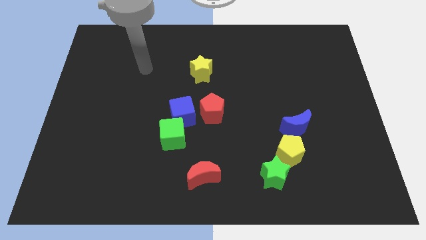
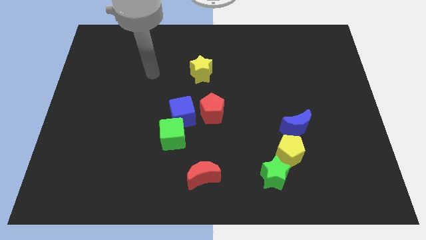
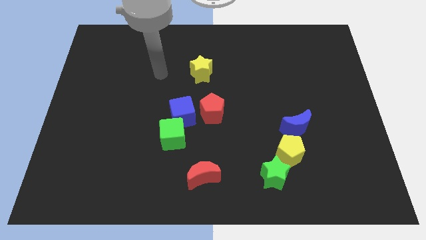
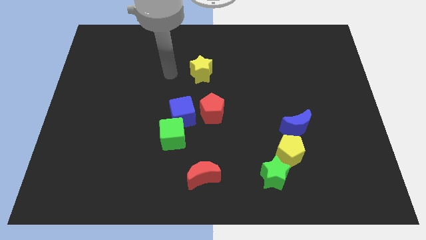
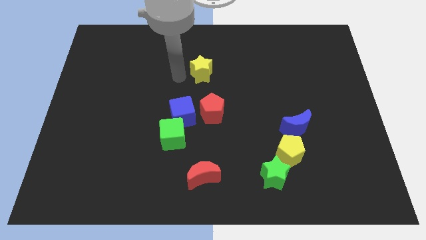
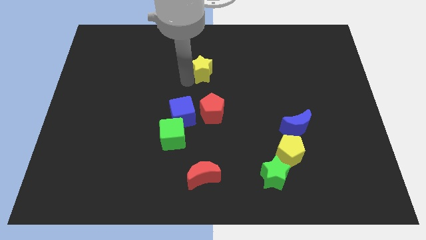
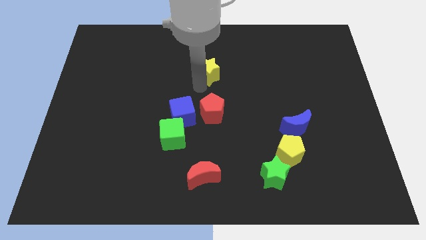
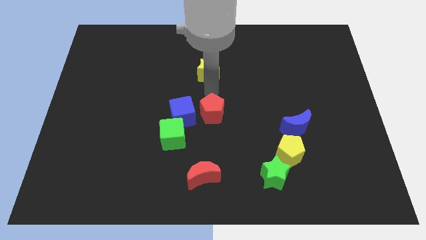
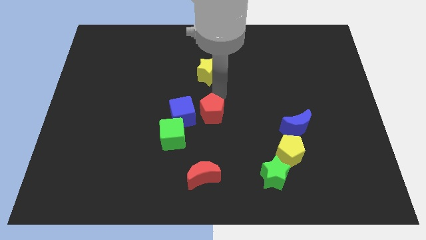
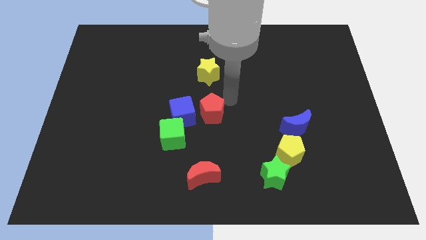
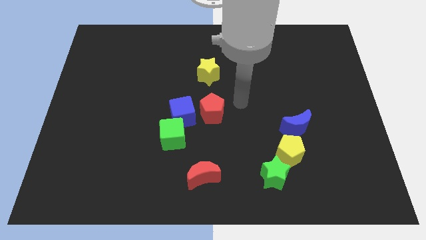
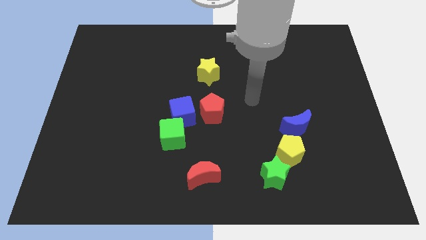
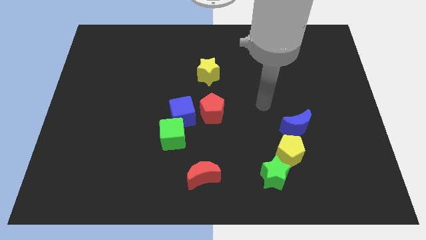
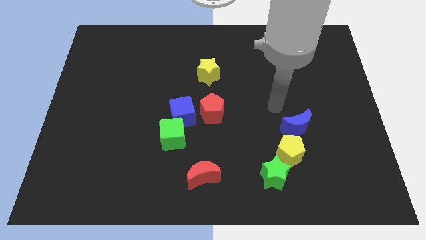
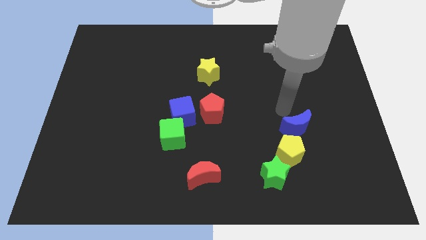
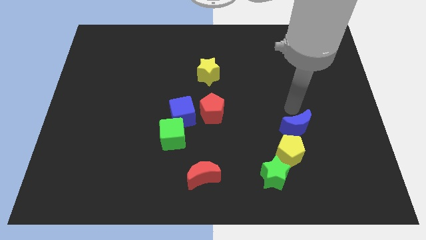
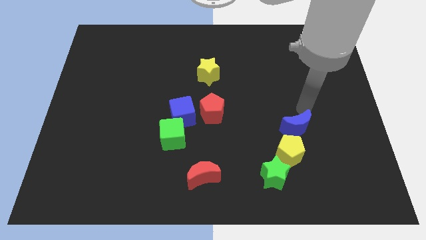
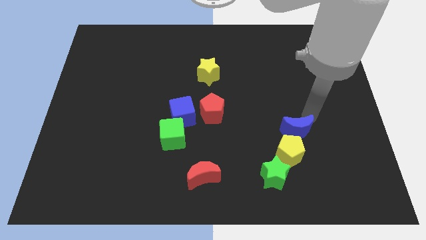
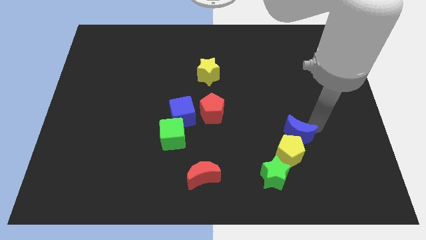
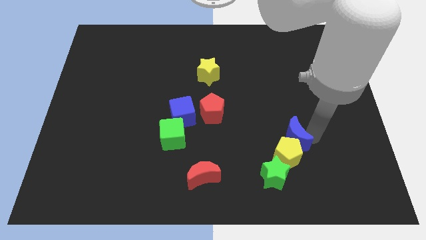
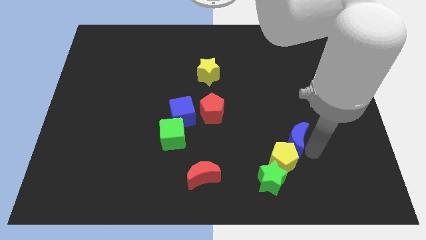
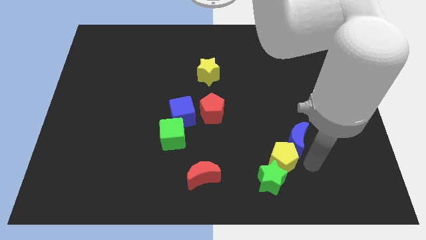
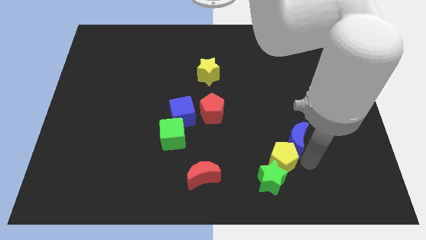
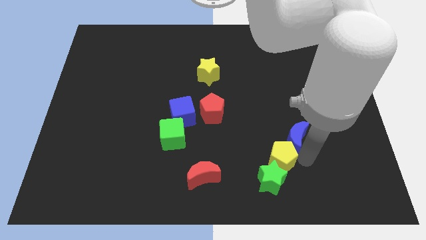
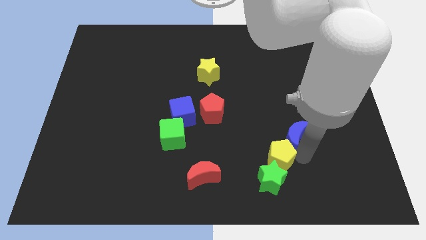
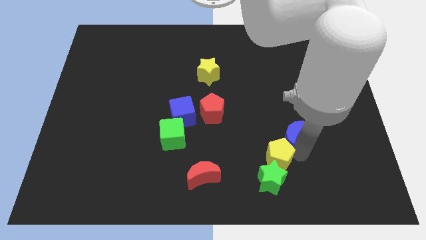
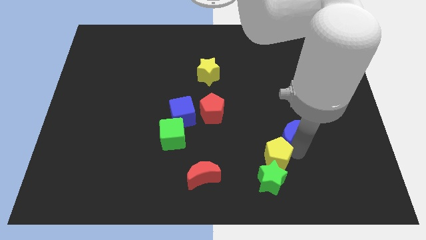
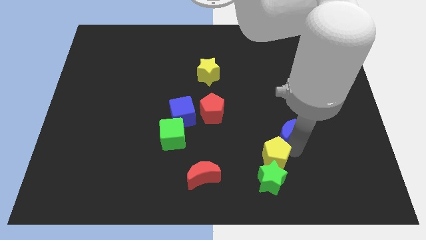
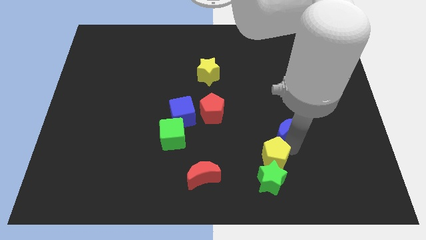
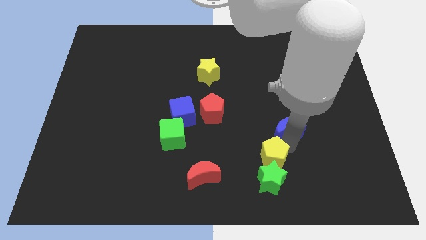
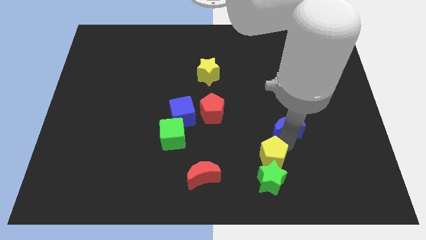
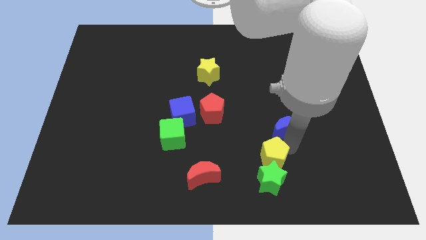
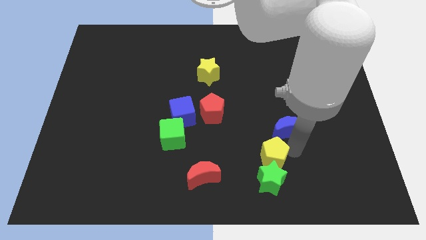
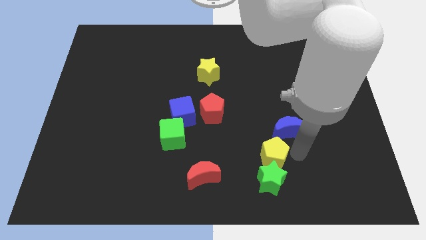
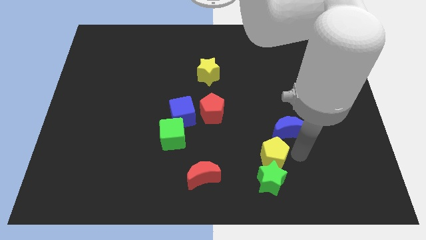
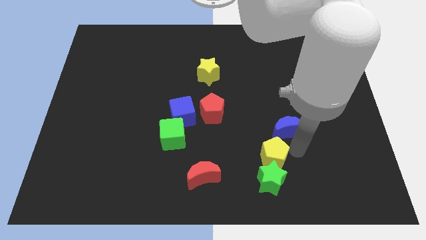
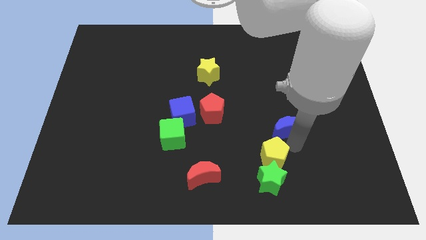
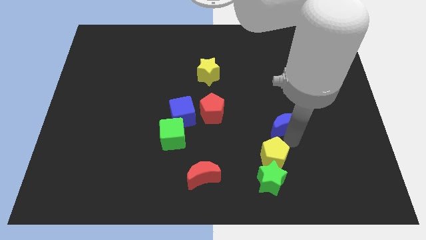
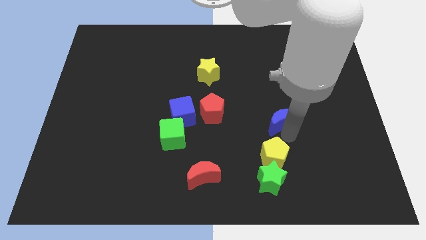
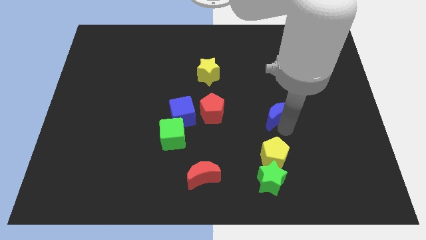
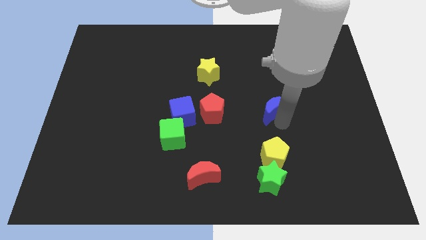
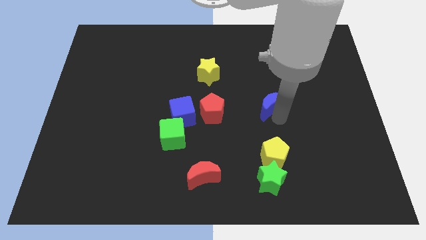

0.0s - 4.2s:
push the blue moon a little upwards and left diagonally

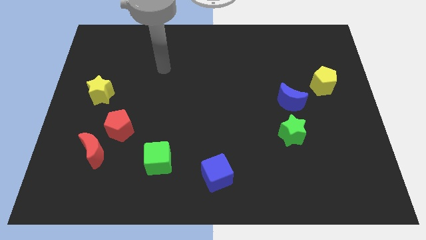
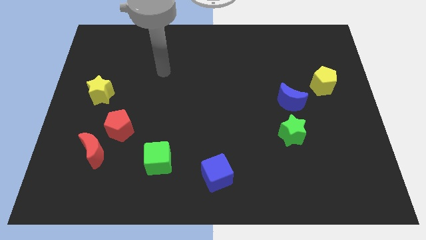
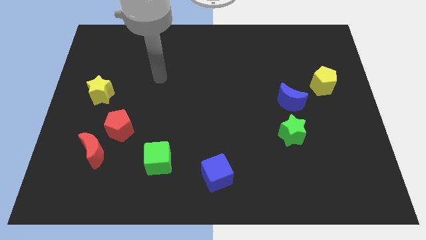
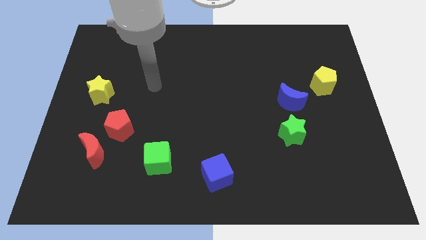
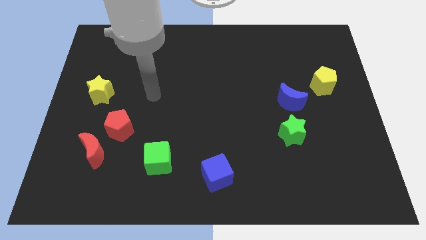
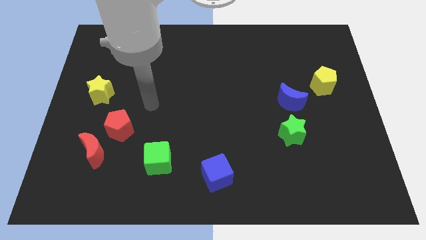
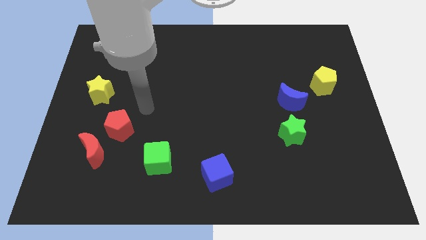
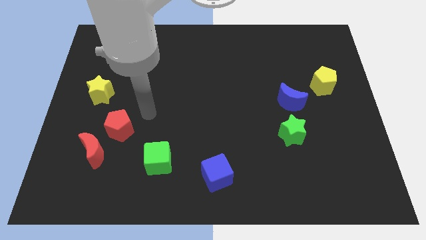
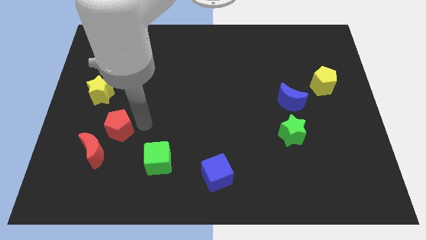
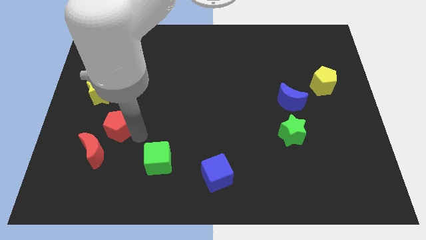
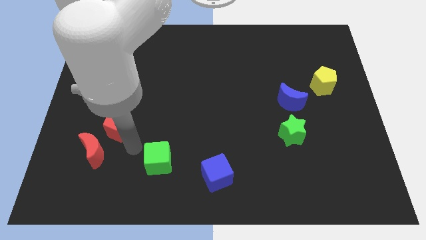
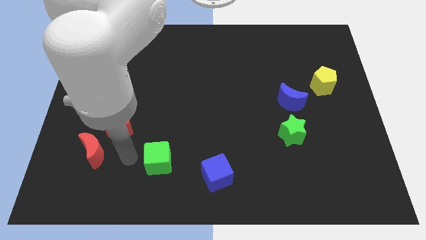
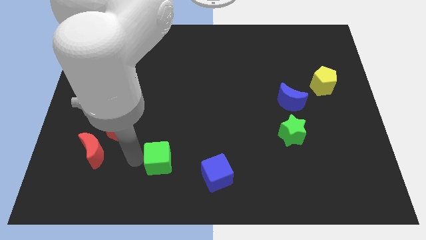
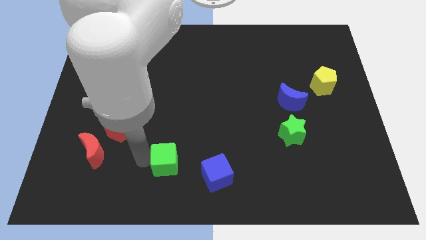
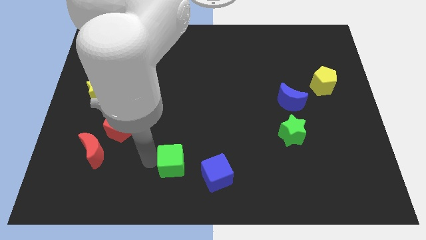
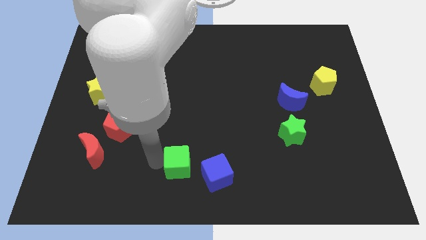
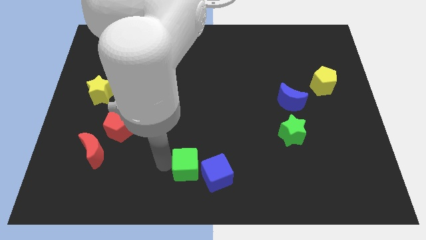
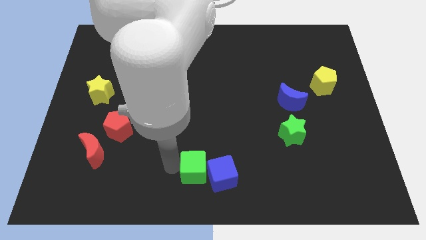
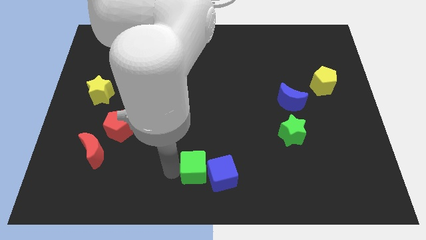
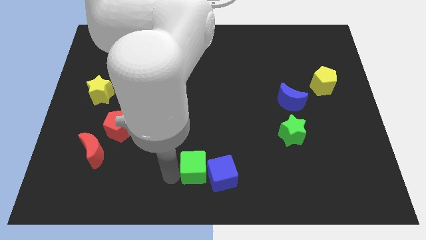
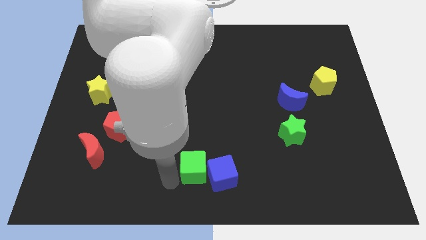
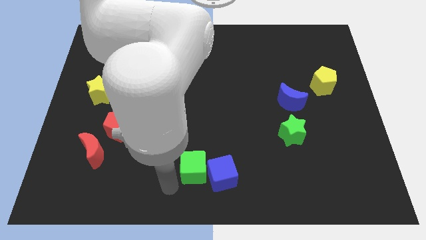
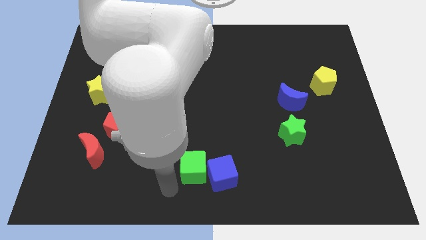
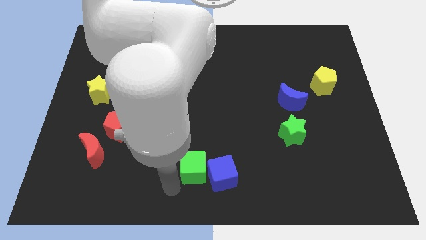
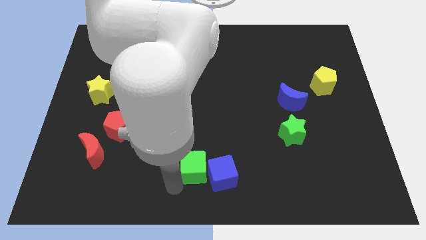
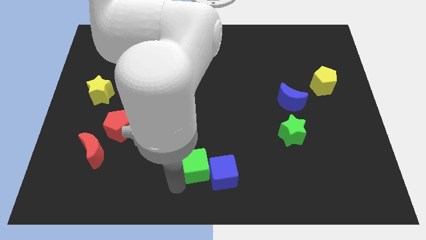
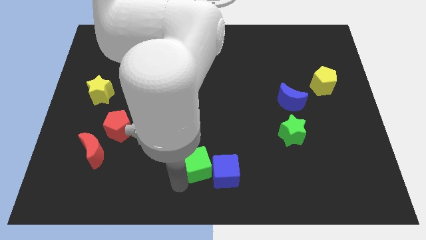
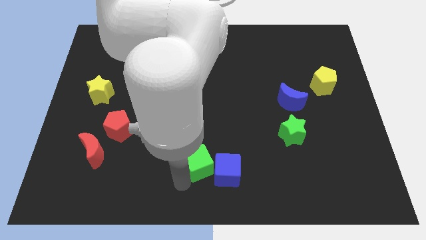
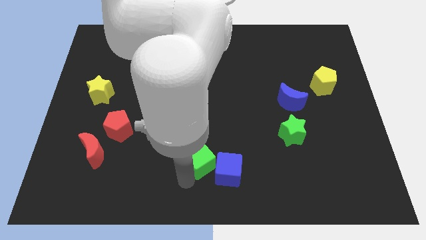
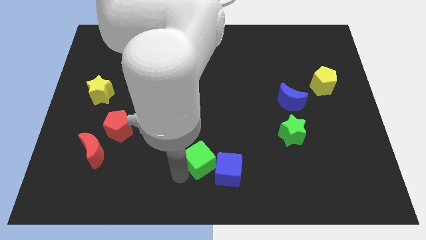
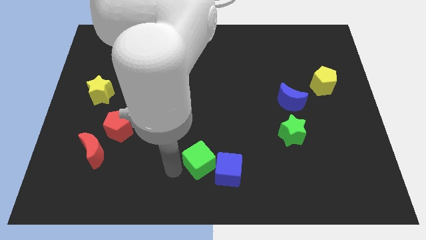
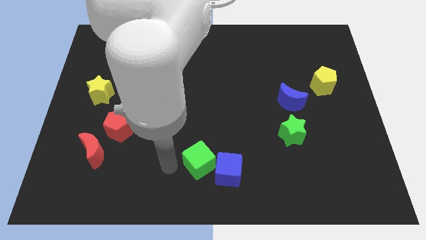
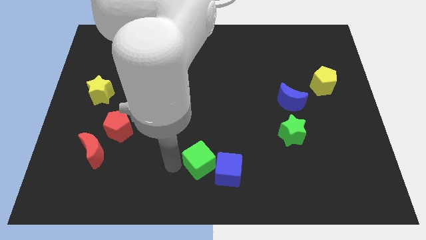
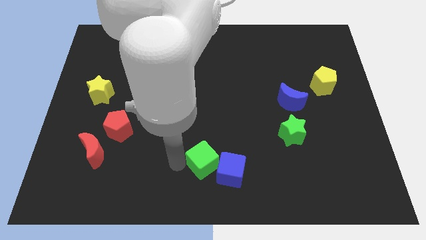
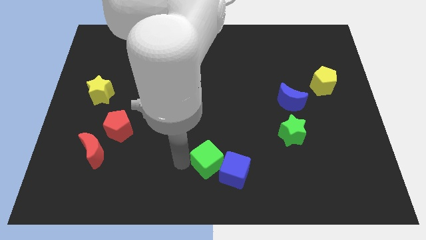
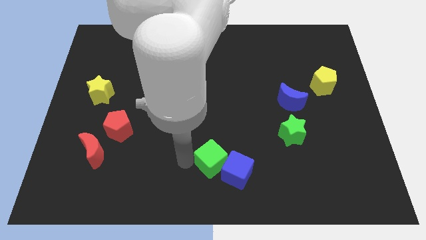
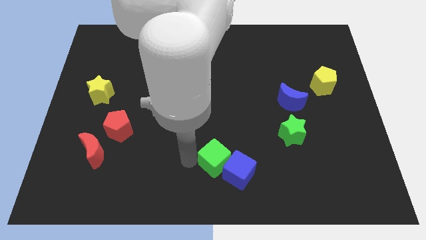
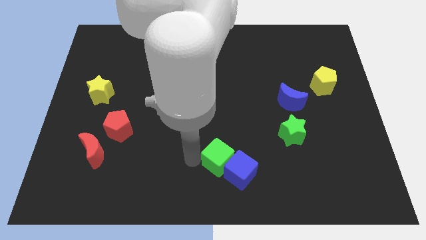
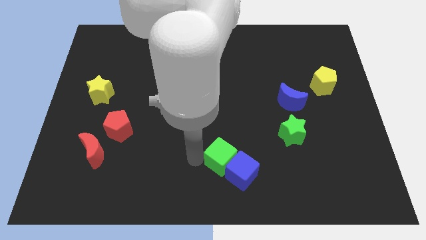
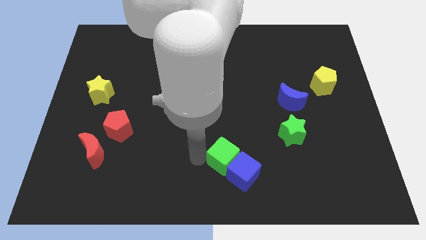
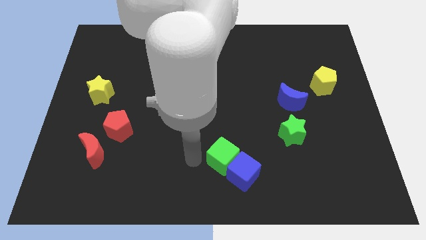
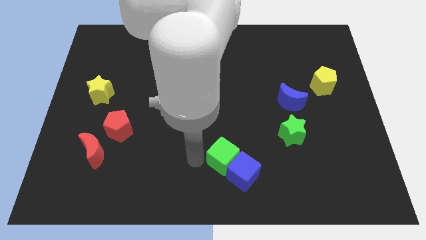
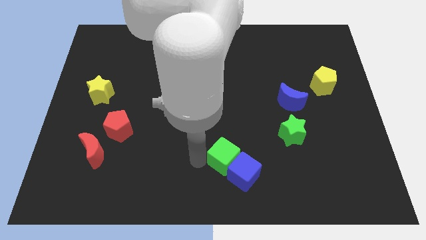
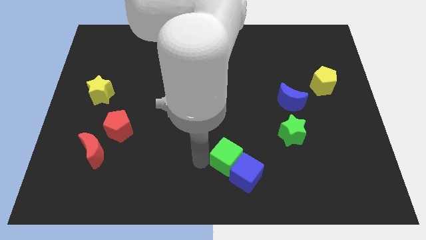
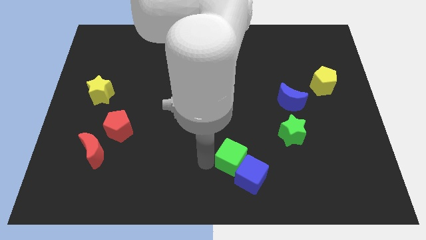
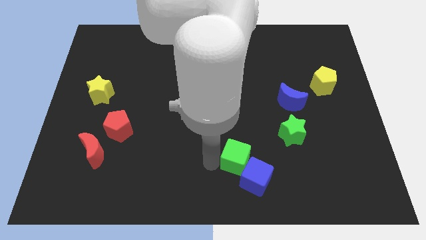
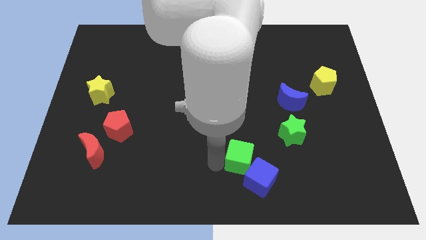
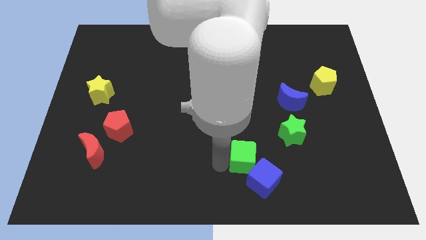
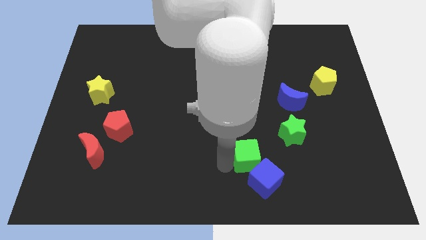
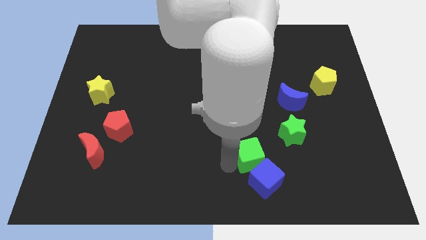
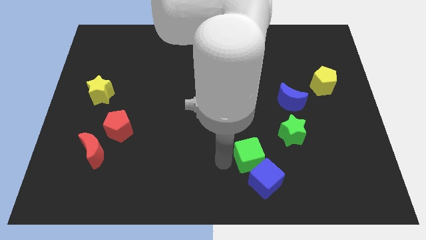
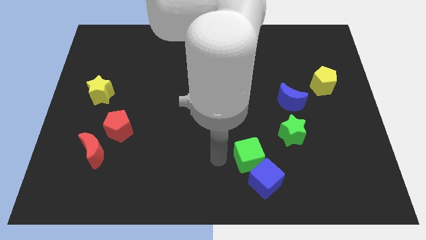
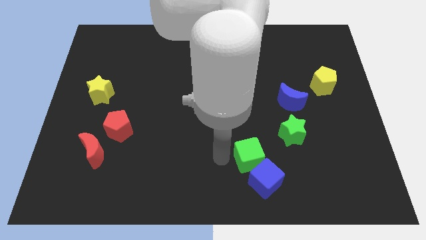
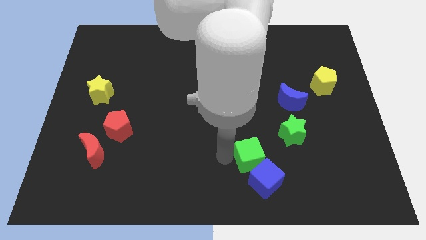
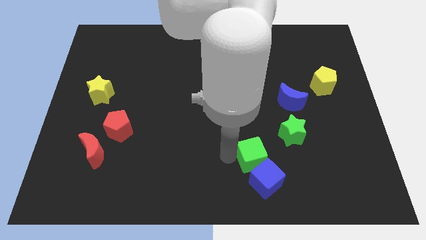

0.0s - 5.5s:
move the green cube right
